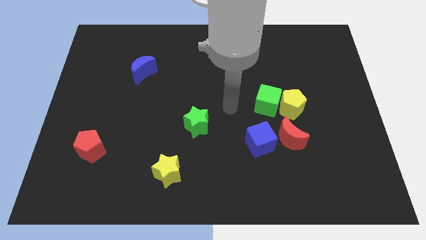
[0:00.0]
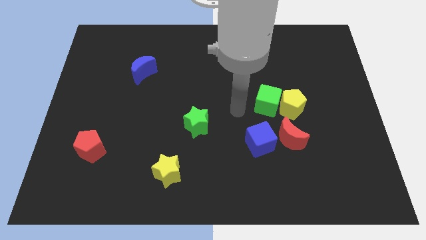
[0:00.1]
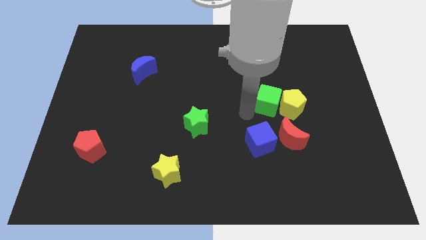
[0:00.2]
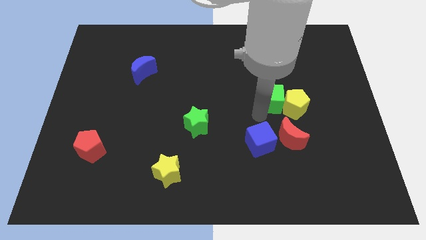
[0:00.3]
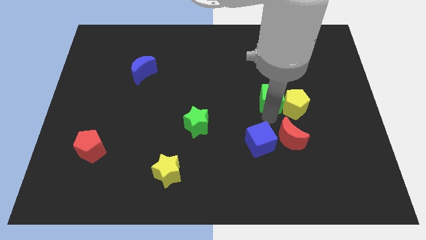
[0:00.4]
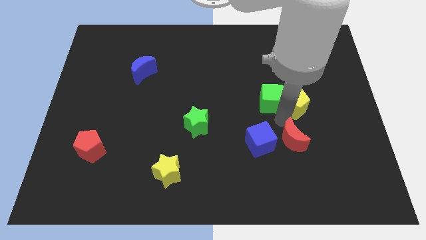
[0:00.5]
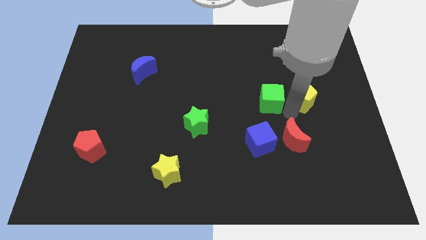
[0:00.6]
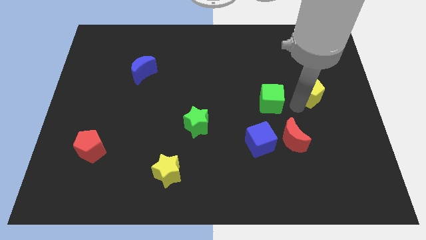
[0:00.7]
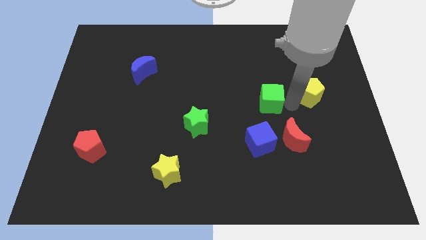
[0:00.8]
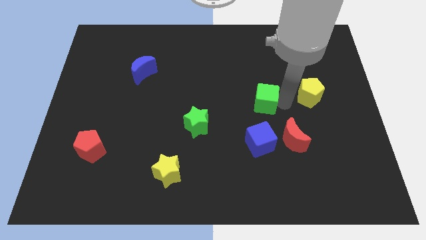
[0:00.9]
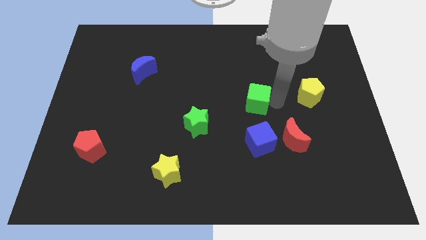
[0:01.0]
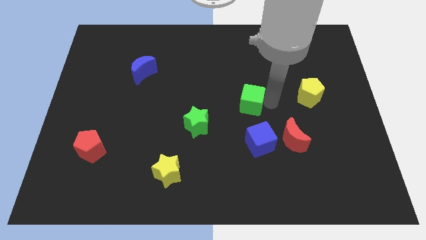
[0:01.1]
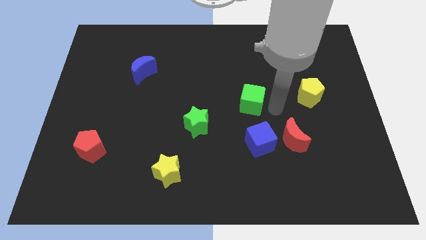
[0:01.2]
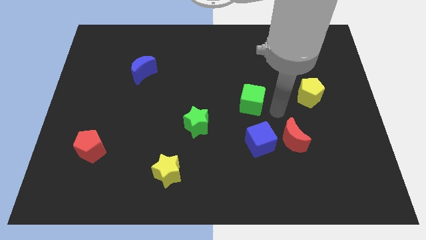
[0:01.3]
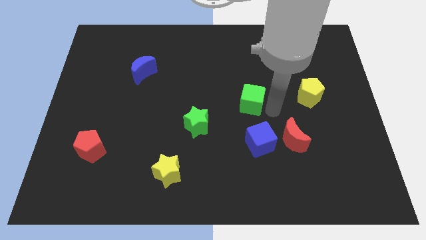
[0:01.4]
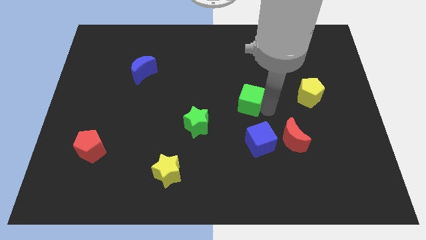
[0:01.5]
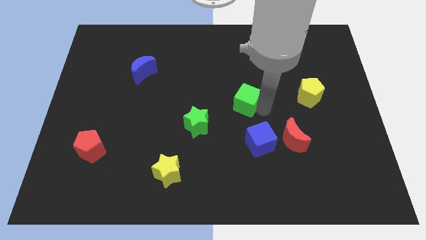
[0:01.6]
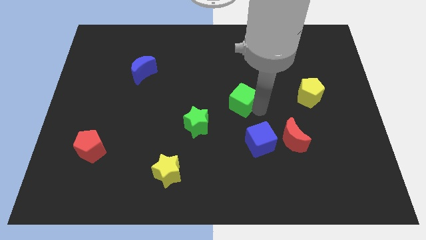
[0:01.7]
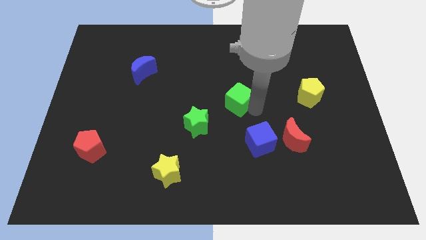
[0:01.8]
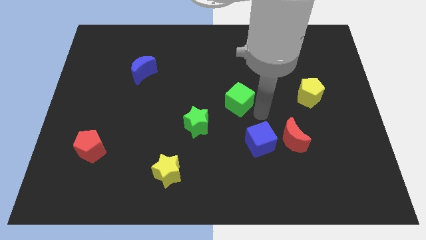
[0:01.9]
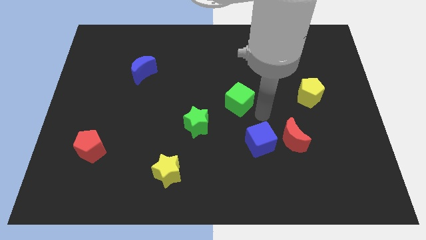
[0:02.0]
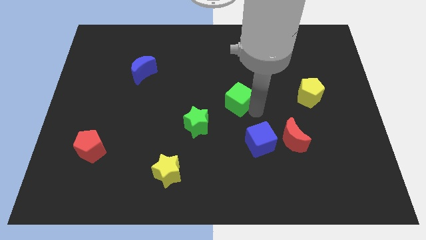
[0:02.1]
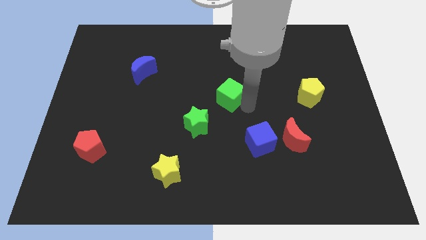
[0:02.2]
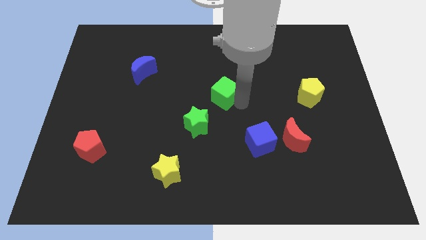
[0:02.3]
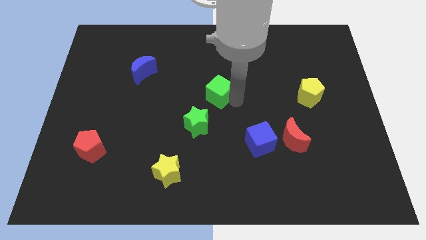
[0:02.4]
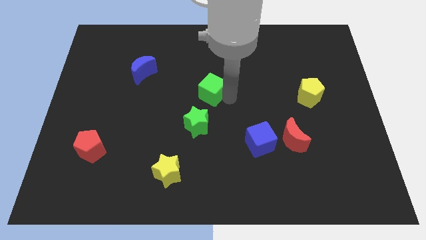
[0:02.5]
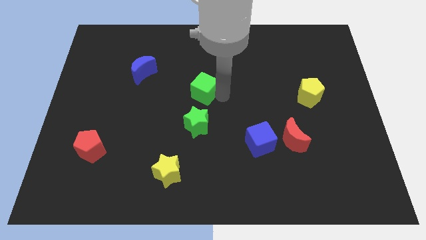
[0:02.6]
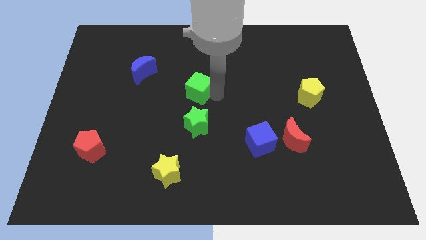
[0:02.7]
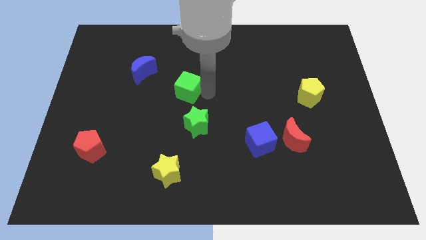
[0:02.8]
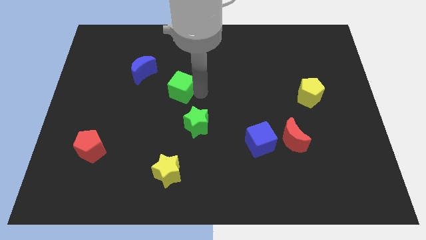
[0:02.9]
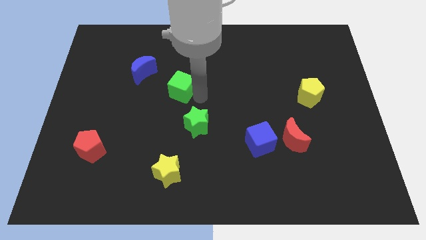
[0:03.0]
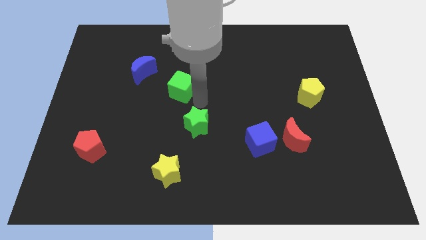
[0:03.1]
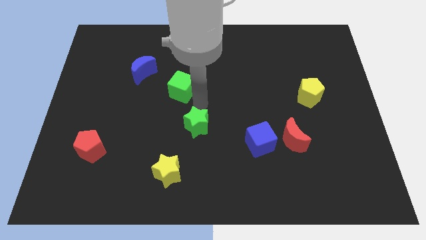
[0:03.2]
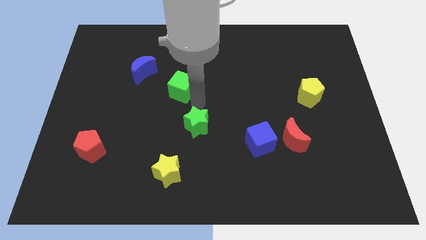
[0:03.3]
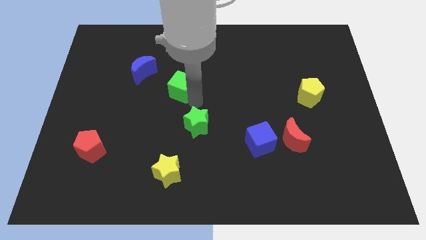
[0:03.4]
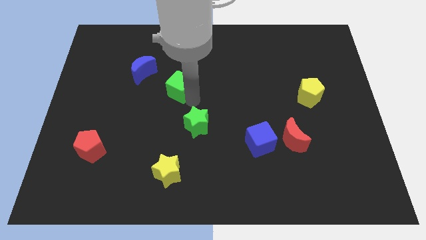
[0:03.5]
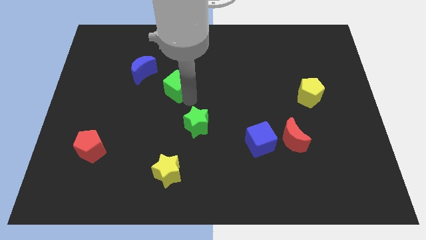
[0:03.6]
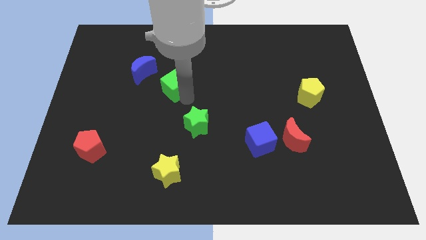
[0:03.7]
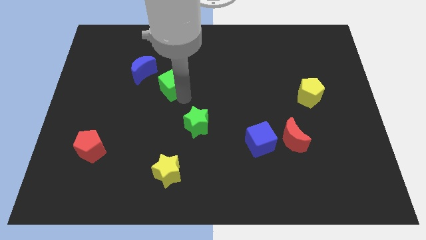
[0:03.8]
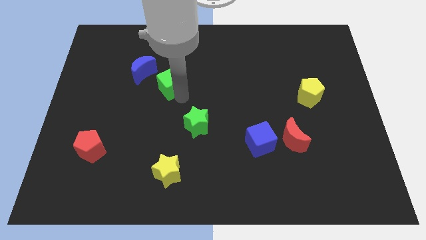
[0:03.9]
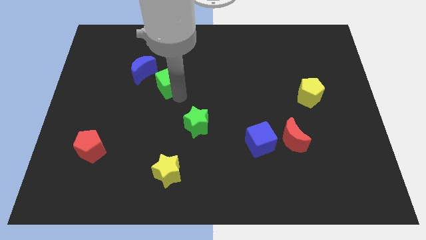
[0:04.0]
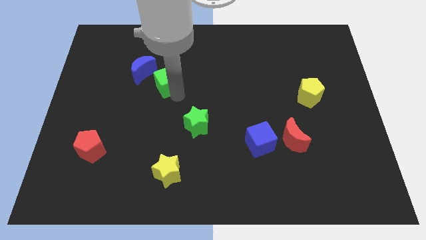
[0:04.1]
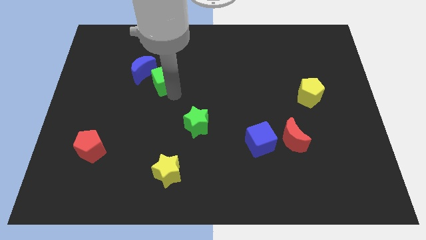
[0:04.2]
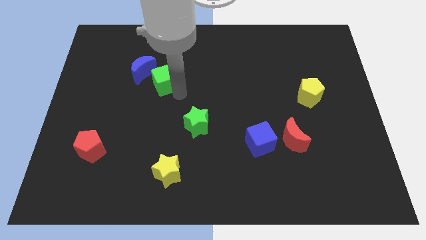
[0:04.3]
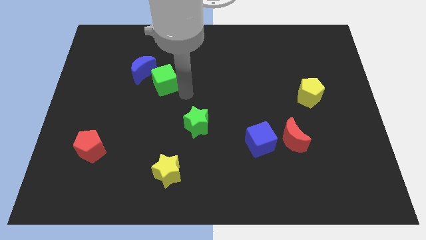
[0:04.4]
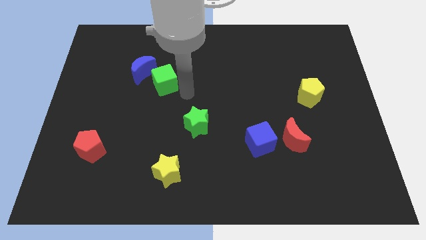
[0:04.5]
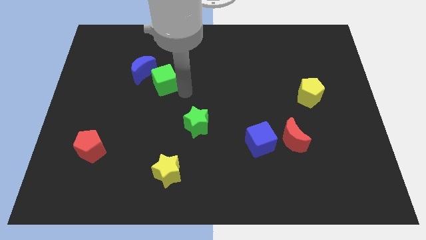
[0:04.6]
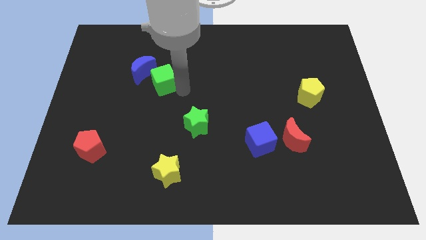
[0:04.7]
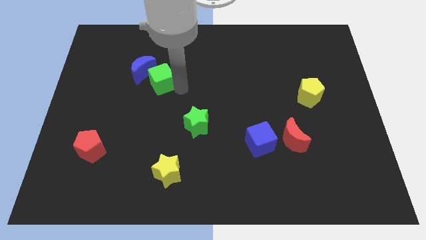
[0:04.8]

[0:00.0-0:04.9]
slide the green cube next to the blue moon

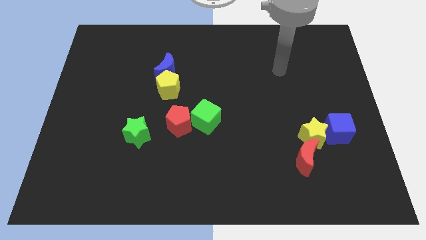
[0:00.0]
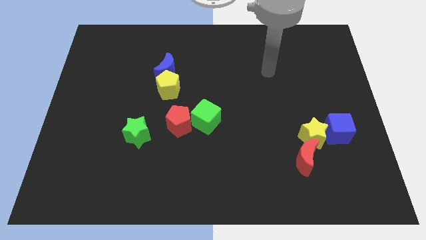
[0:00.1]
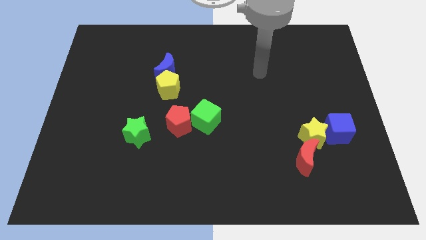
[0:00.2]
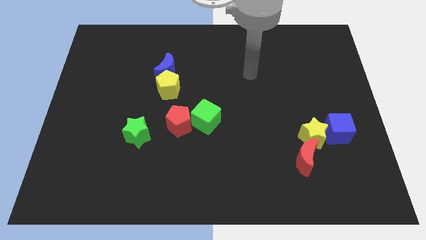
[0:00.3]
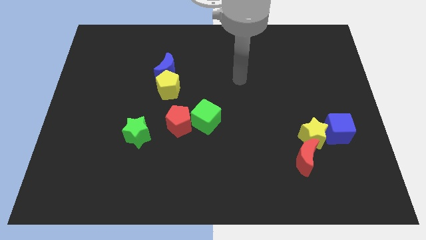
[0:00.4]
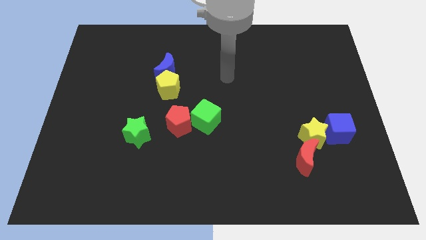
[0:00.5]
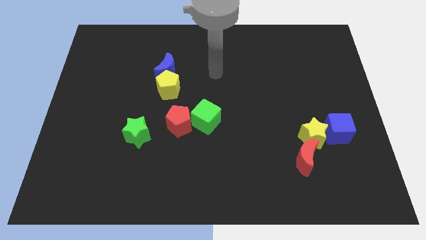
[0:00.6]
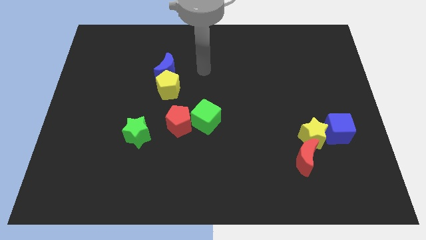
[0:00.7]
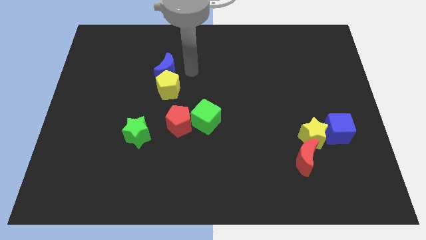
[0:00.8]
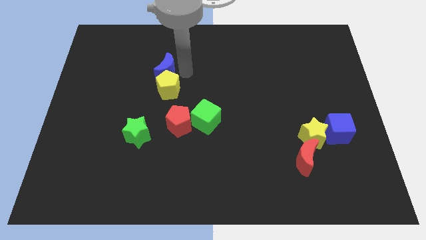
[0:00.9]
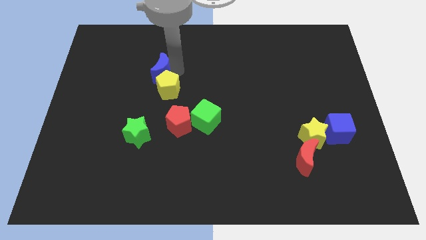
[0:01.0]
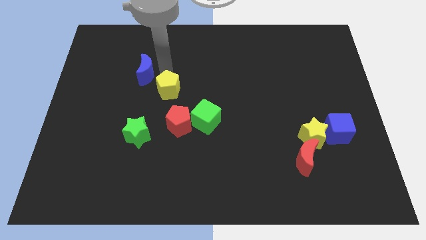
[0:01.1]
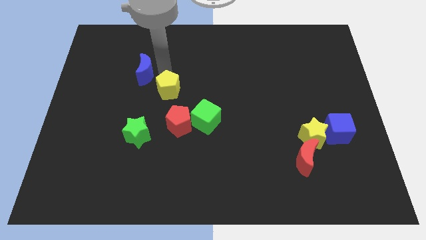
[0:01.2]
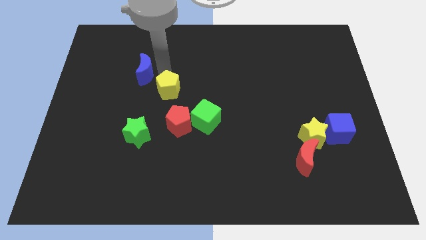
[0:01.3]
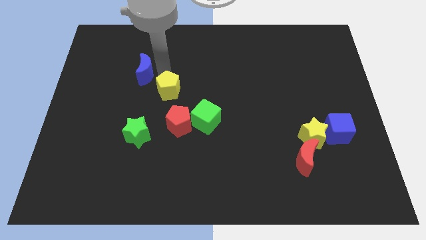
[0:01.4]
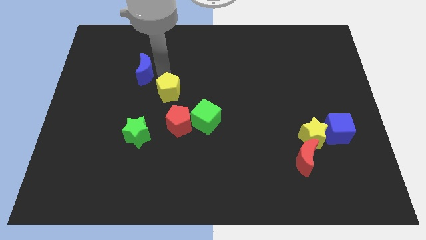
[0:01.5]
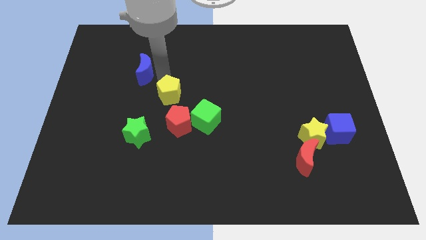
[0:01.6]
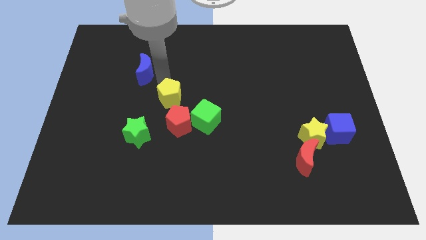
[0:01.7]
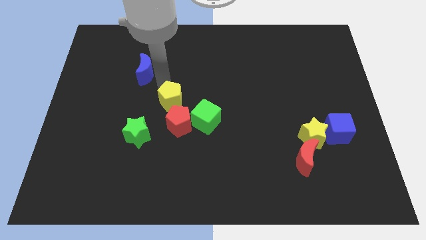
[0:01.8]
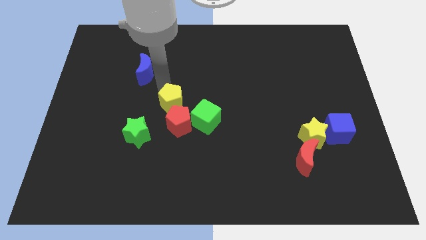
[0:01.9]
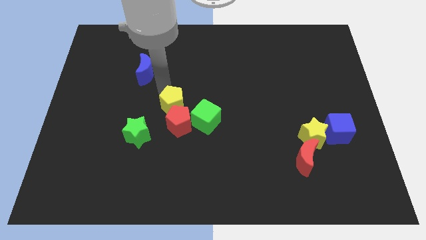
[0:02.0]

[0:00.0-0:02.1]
move the yellow pentagon towards the red pentagon

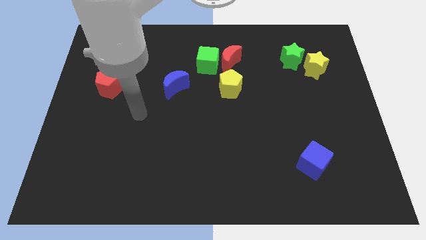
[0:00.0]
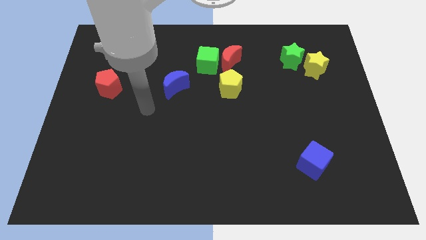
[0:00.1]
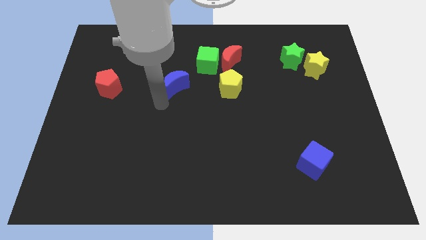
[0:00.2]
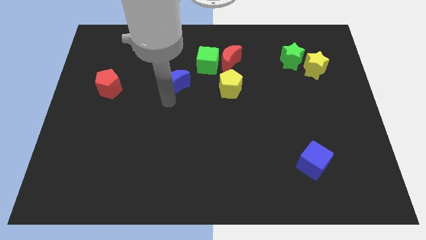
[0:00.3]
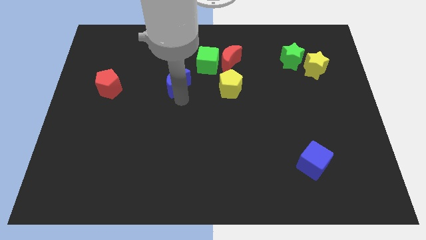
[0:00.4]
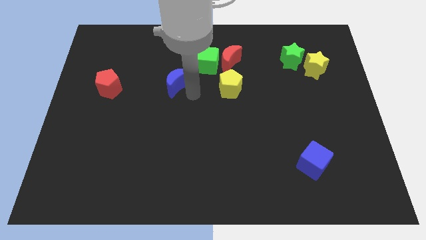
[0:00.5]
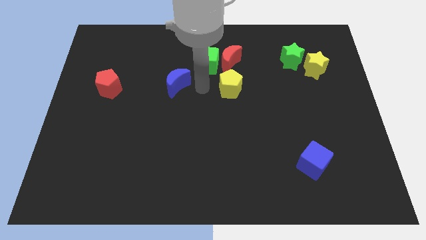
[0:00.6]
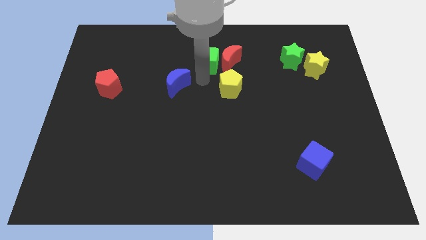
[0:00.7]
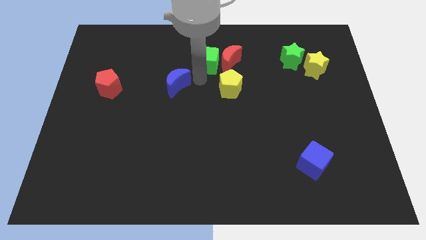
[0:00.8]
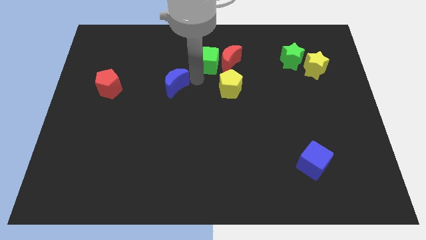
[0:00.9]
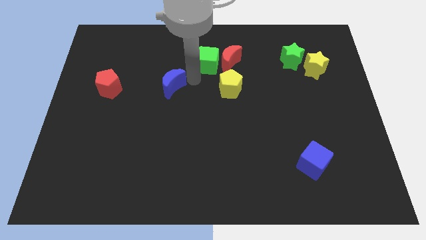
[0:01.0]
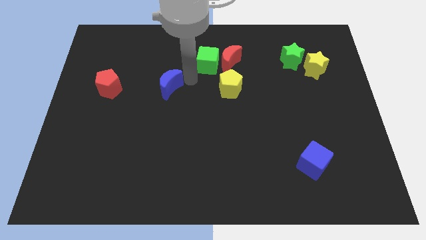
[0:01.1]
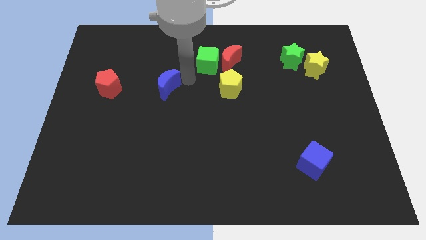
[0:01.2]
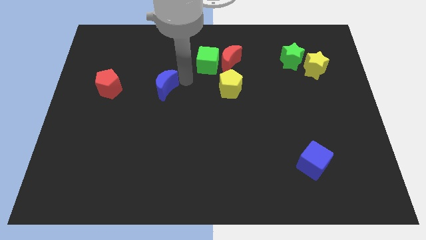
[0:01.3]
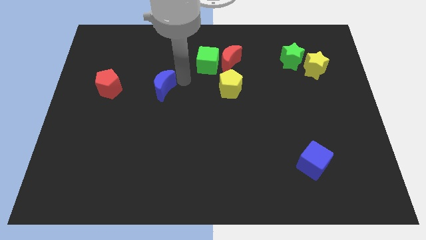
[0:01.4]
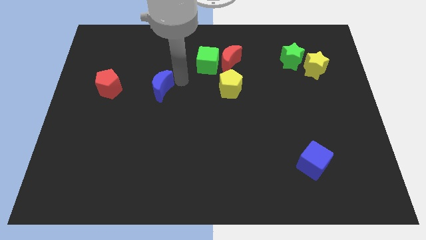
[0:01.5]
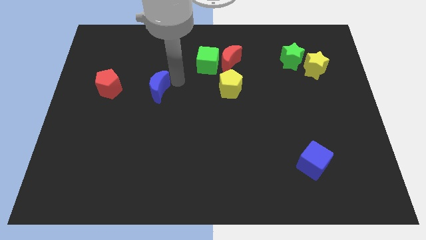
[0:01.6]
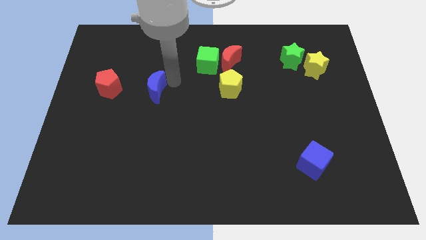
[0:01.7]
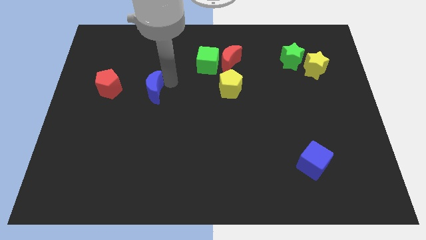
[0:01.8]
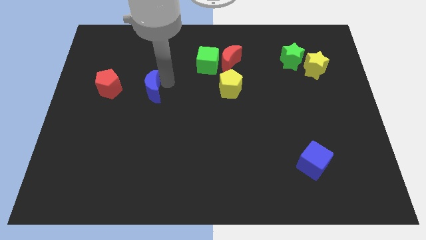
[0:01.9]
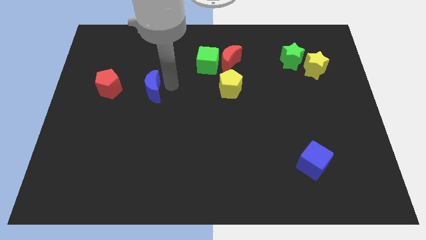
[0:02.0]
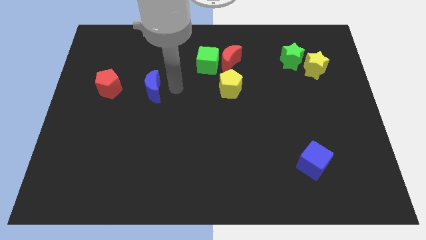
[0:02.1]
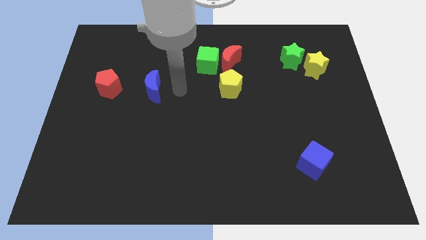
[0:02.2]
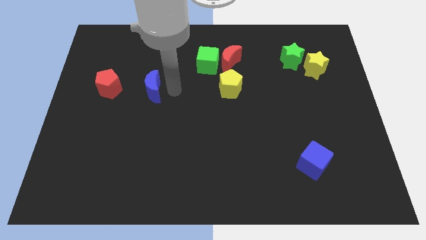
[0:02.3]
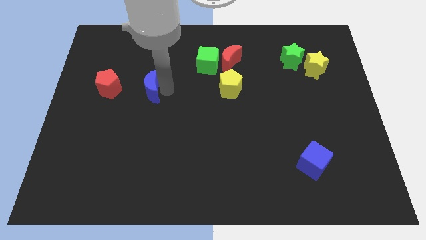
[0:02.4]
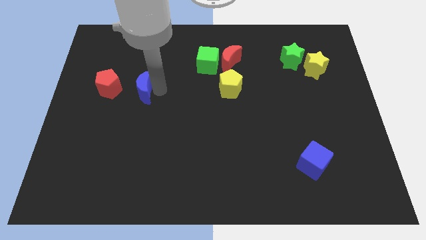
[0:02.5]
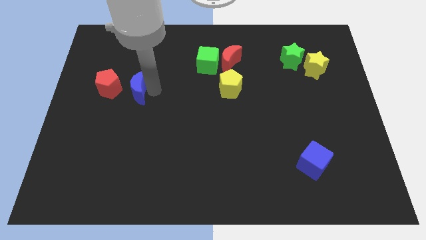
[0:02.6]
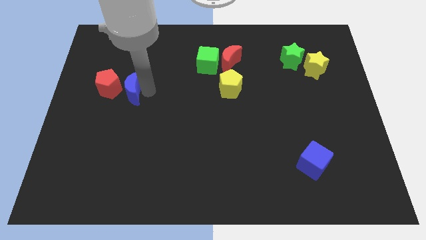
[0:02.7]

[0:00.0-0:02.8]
push the blue moon towards the red pentagon
